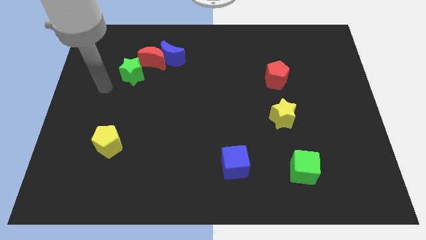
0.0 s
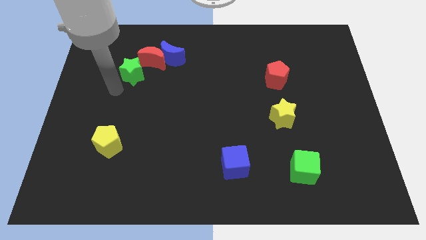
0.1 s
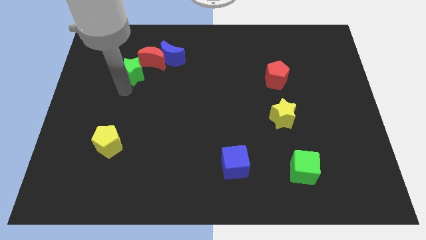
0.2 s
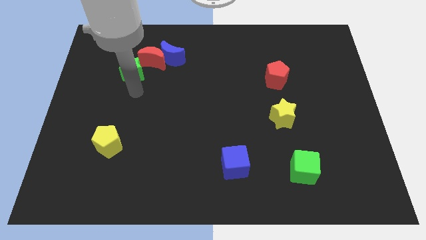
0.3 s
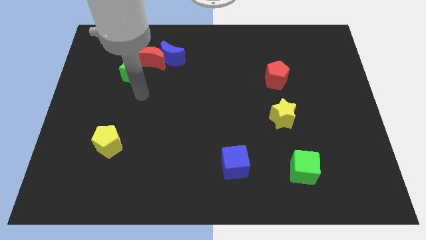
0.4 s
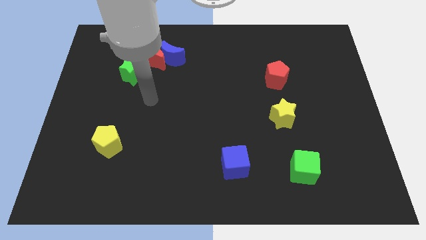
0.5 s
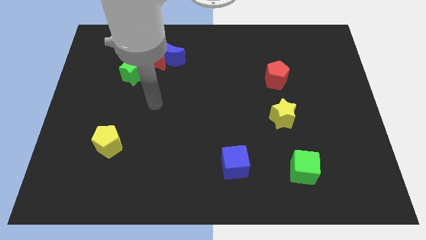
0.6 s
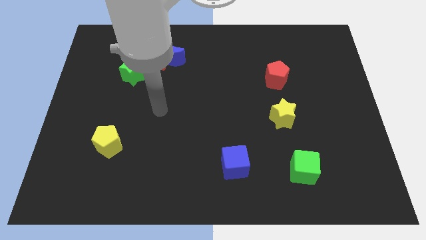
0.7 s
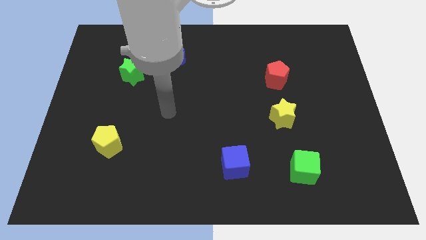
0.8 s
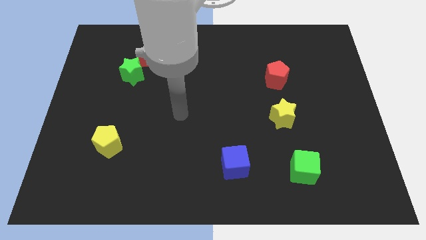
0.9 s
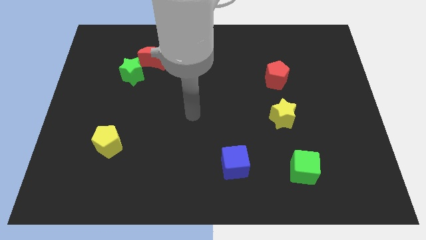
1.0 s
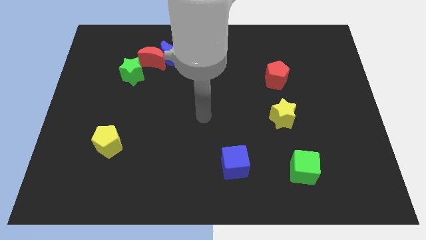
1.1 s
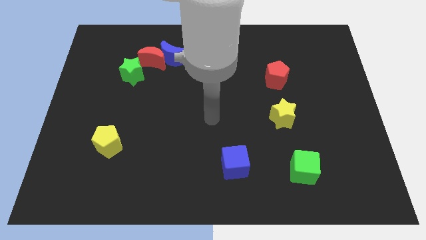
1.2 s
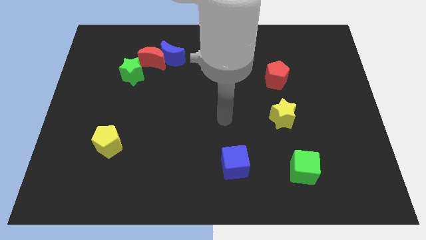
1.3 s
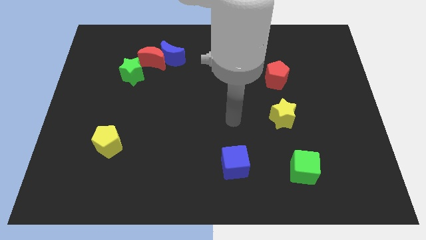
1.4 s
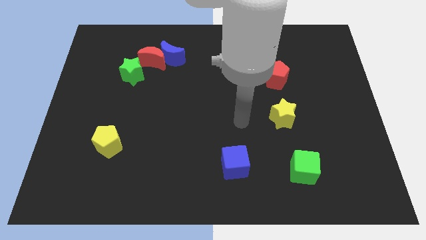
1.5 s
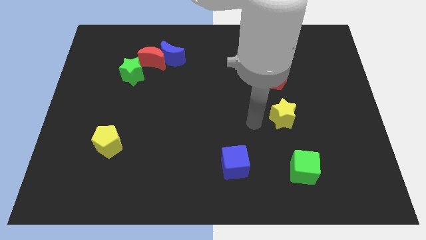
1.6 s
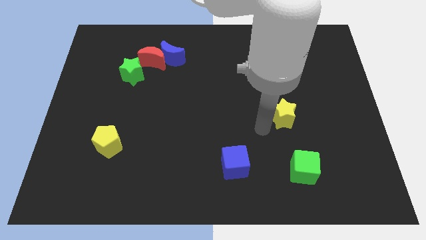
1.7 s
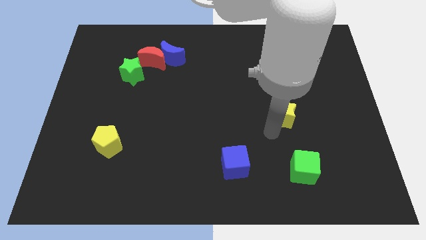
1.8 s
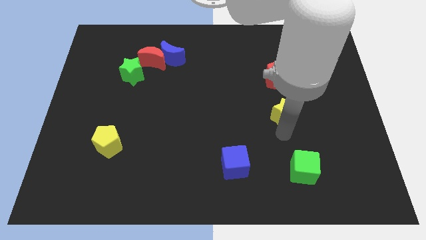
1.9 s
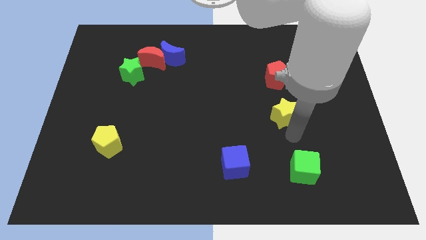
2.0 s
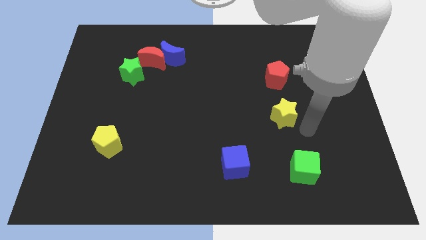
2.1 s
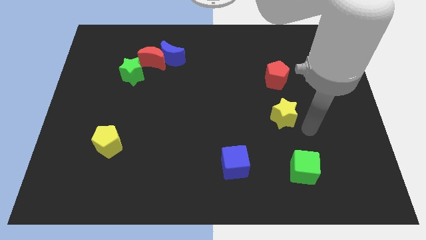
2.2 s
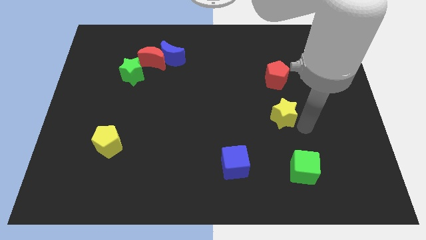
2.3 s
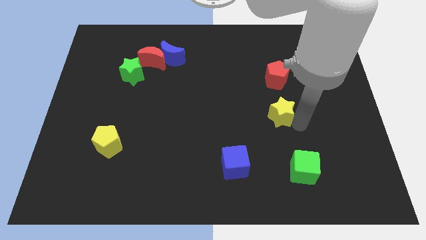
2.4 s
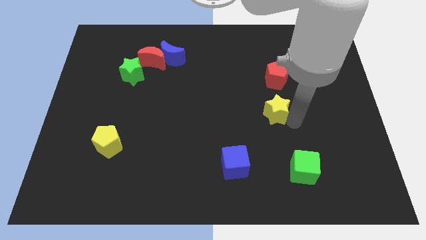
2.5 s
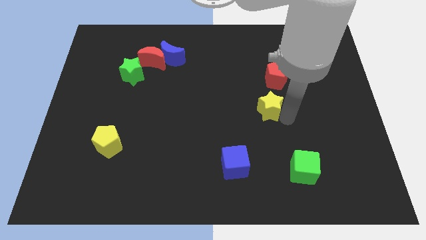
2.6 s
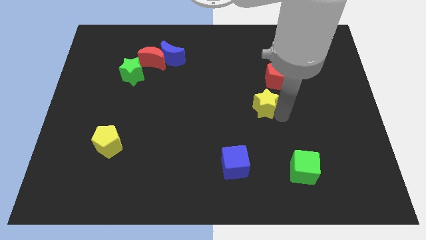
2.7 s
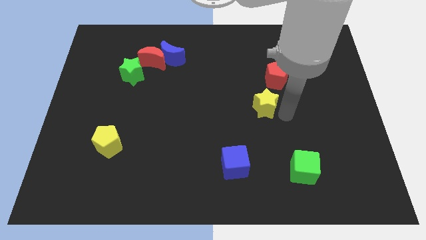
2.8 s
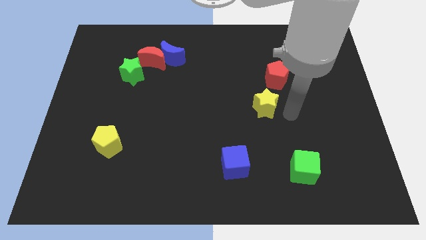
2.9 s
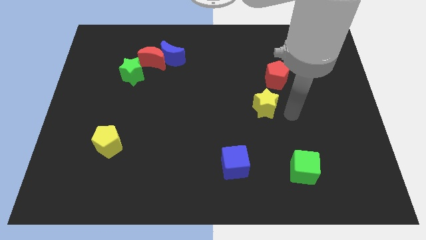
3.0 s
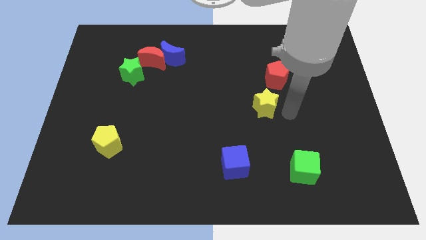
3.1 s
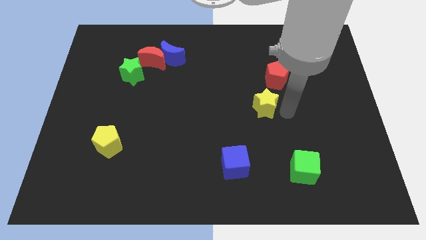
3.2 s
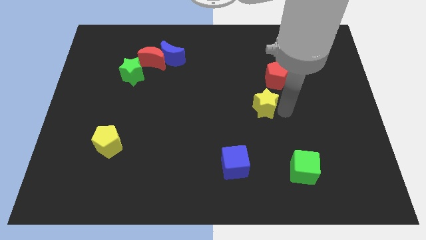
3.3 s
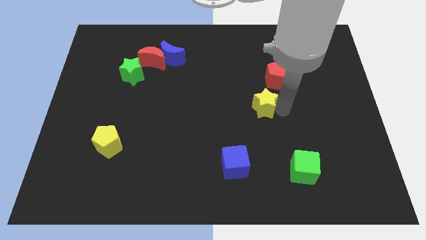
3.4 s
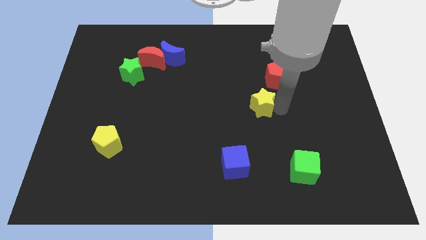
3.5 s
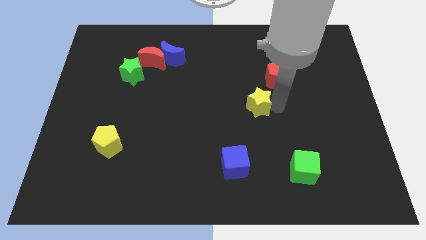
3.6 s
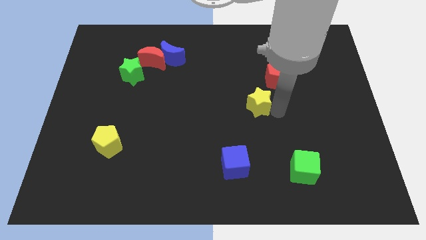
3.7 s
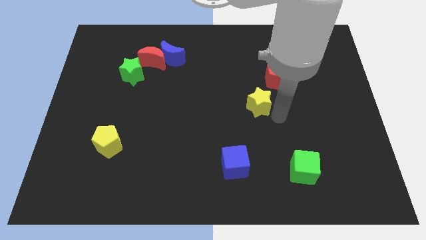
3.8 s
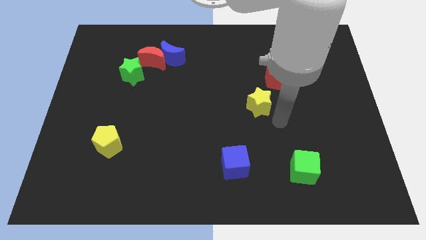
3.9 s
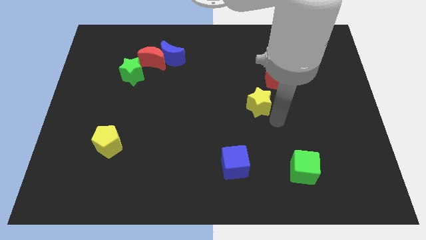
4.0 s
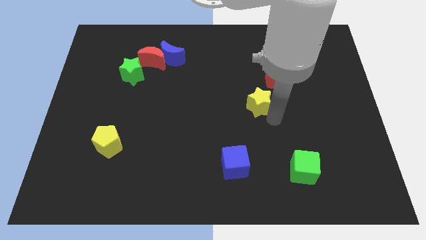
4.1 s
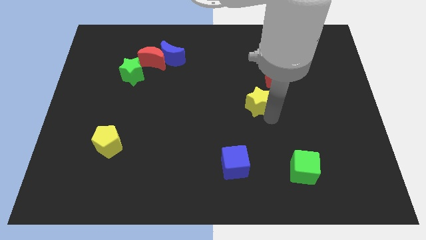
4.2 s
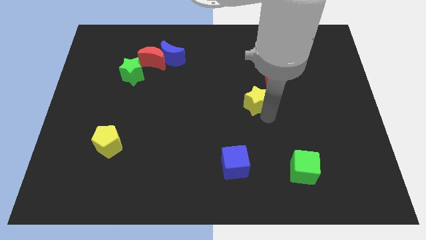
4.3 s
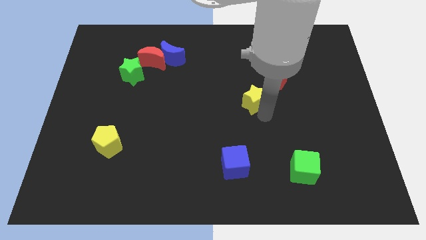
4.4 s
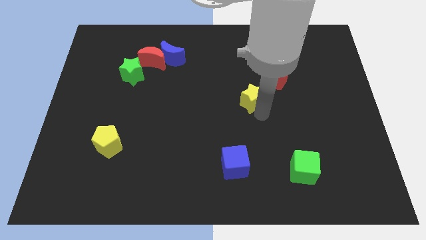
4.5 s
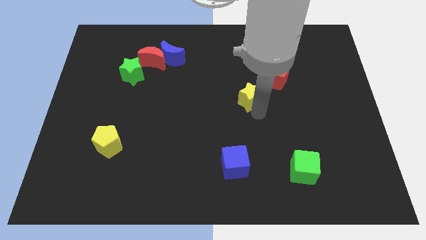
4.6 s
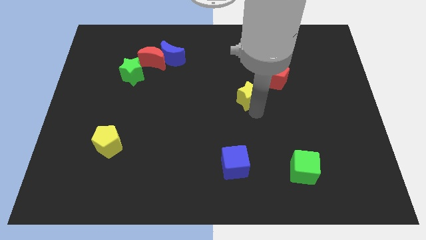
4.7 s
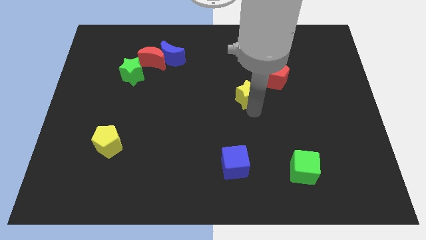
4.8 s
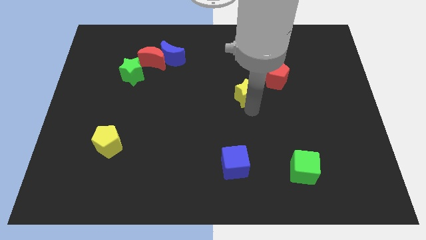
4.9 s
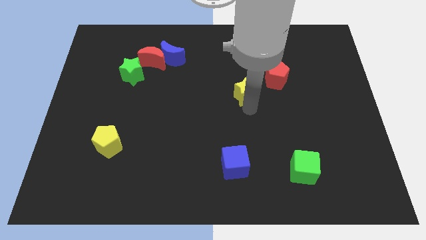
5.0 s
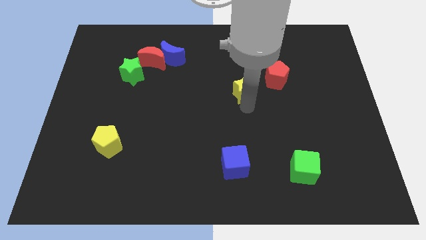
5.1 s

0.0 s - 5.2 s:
push the yellow star left of the red pentagon

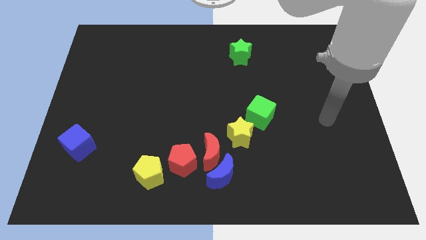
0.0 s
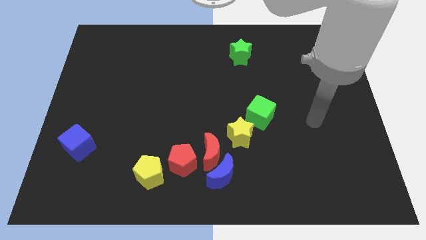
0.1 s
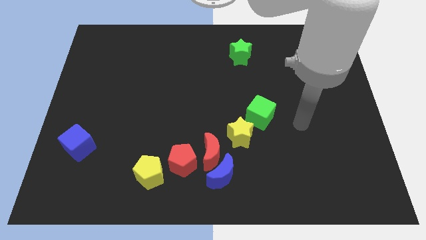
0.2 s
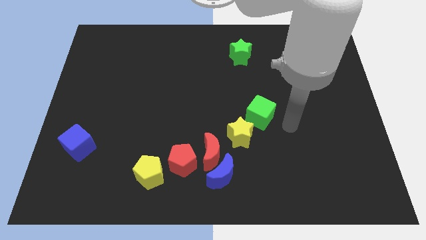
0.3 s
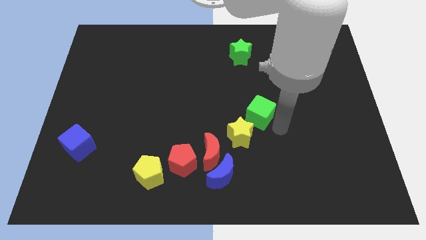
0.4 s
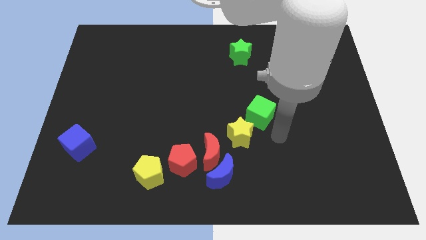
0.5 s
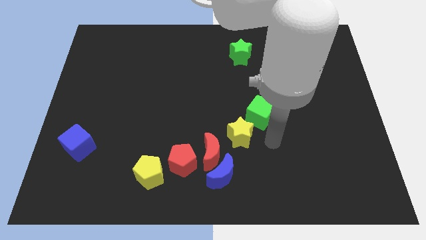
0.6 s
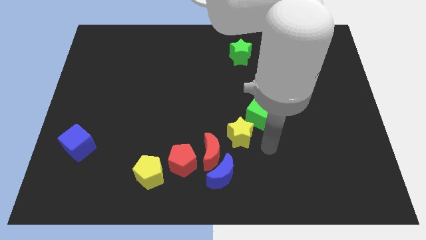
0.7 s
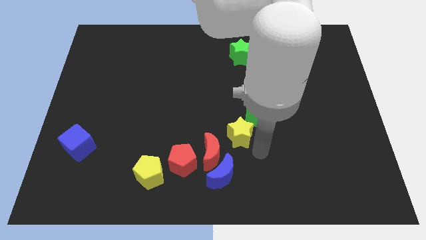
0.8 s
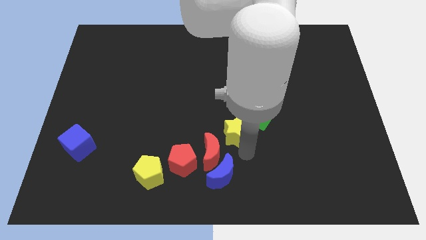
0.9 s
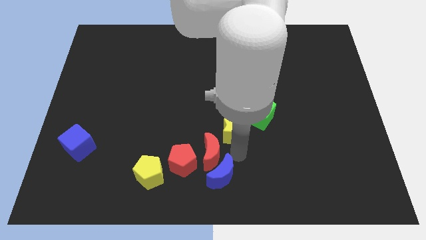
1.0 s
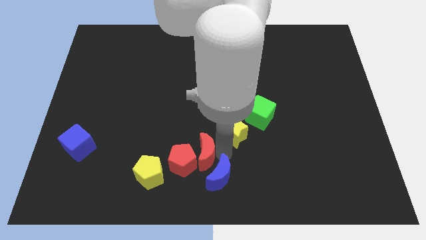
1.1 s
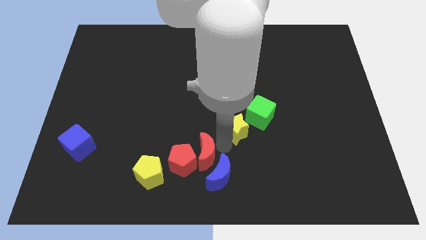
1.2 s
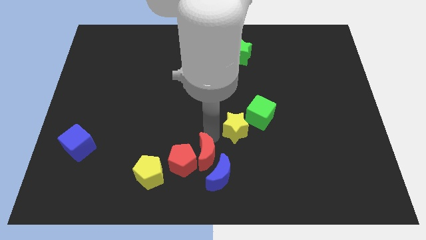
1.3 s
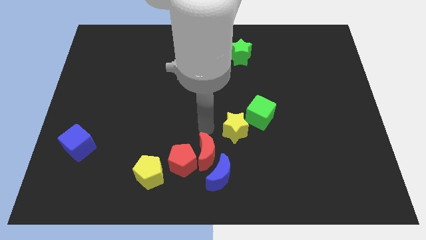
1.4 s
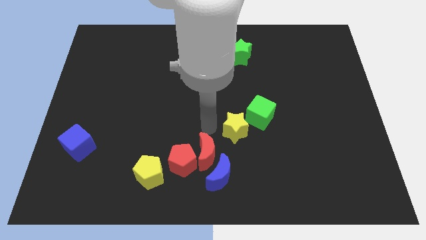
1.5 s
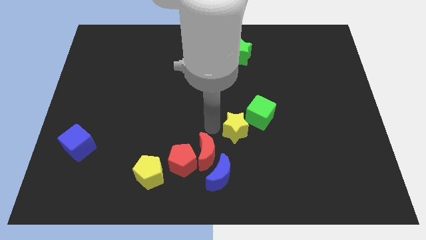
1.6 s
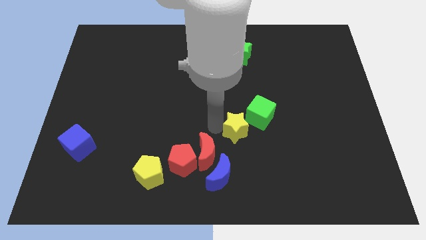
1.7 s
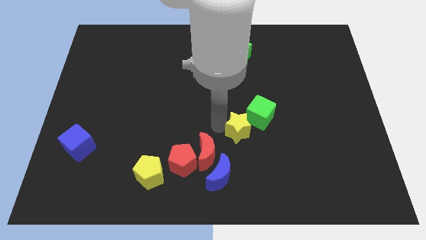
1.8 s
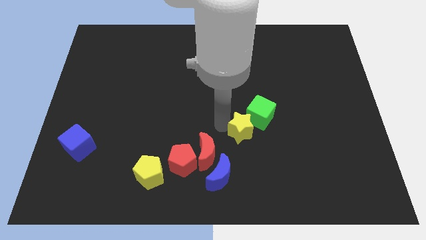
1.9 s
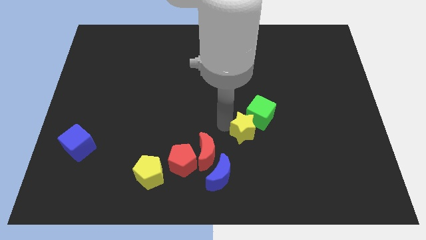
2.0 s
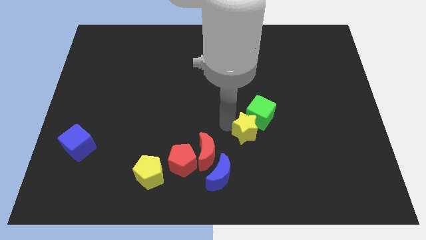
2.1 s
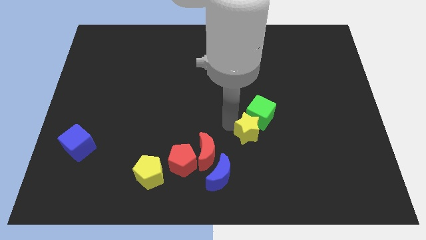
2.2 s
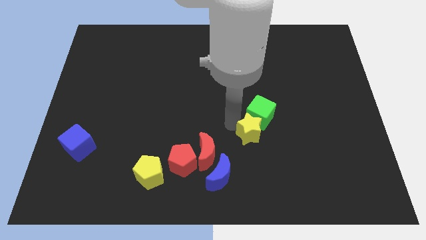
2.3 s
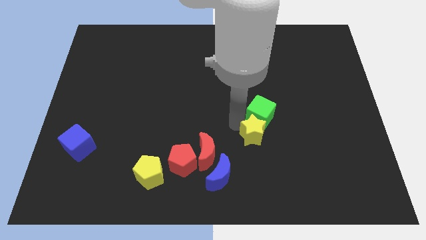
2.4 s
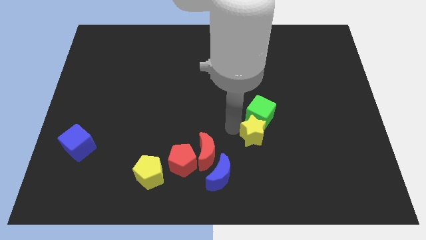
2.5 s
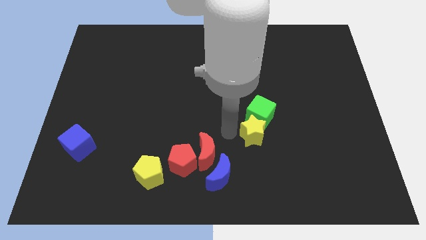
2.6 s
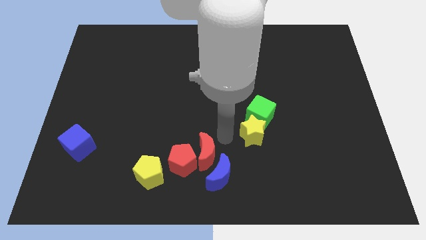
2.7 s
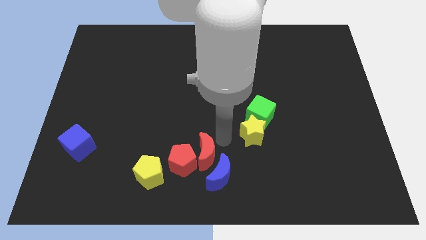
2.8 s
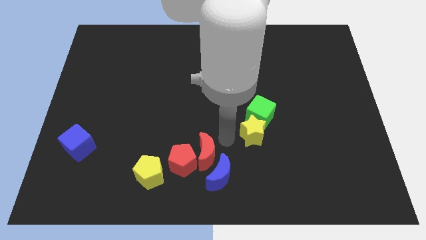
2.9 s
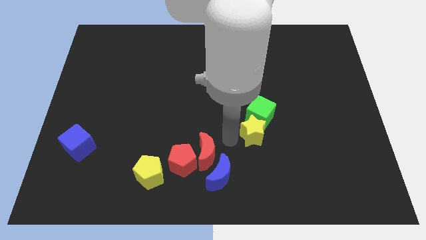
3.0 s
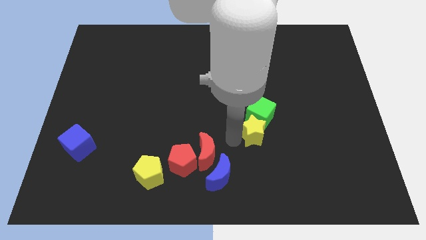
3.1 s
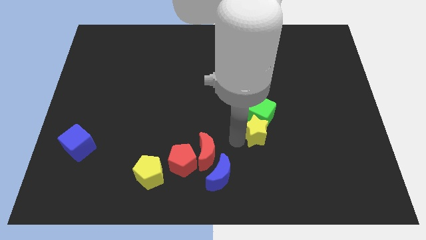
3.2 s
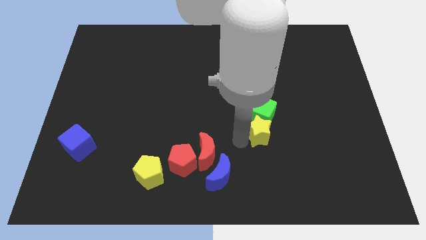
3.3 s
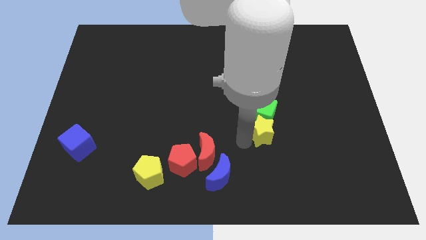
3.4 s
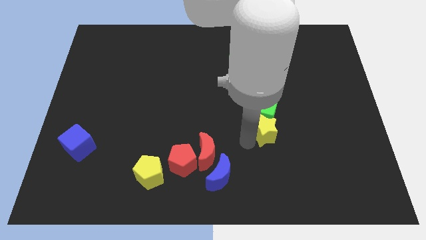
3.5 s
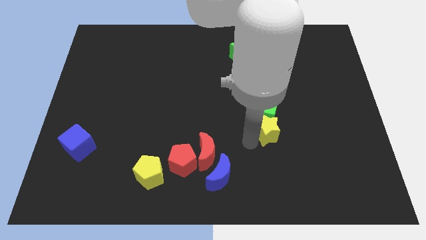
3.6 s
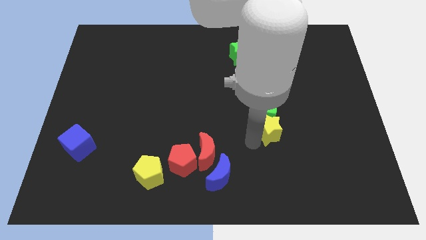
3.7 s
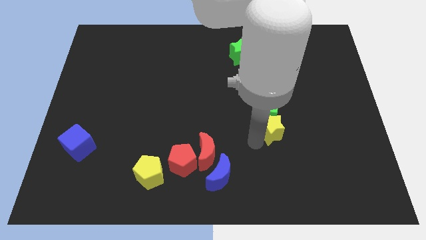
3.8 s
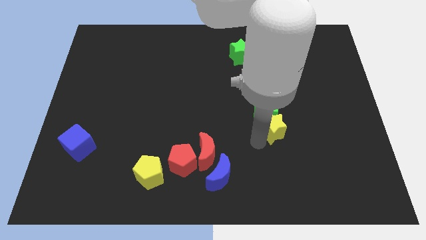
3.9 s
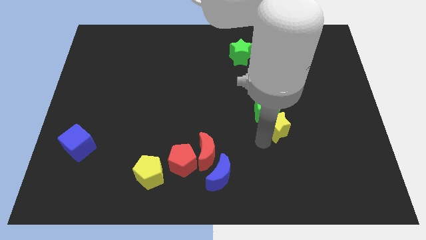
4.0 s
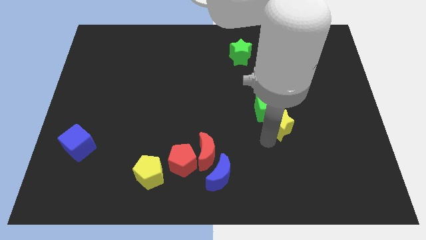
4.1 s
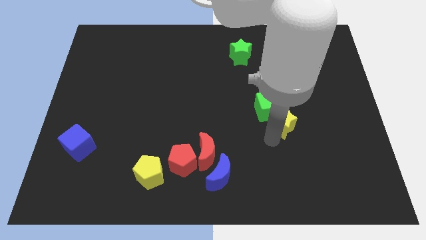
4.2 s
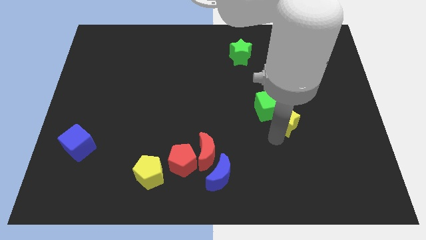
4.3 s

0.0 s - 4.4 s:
slide the yellow star right of the green cube
